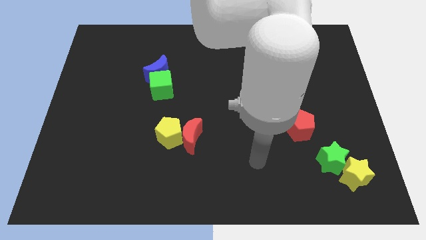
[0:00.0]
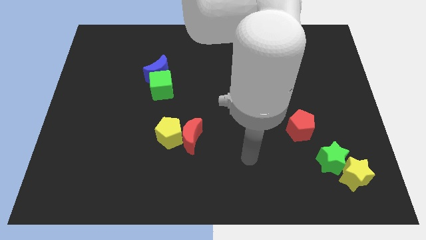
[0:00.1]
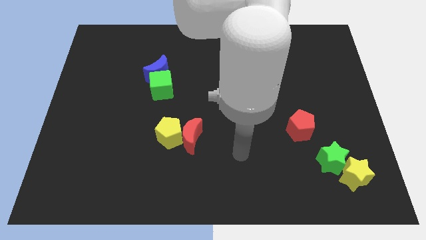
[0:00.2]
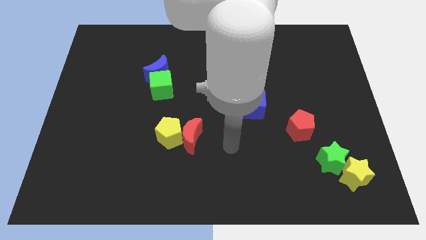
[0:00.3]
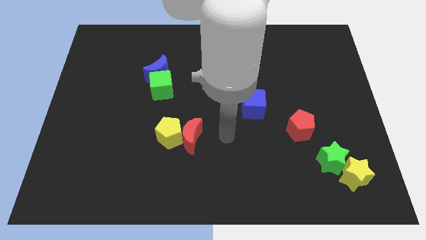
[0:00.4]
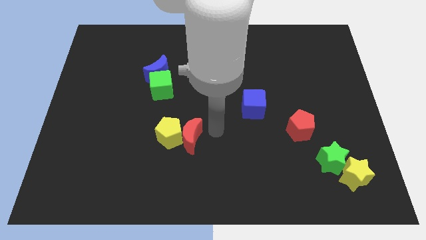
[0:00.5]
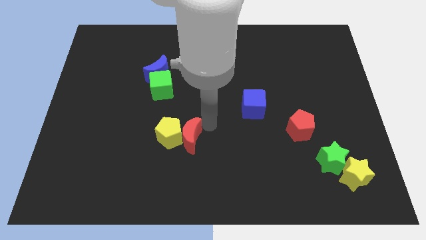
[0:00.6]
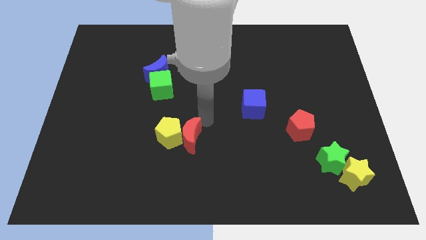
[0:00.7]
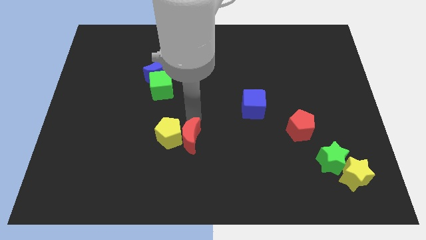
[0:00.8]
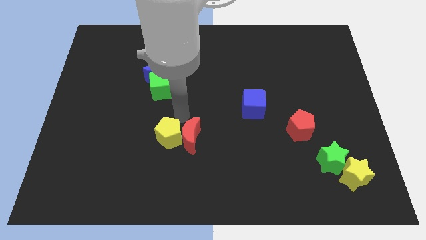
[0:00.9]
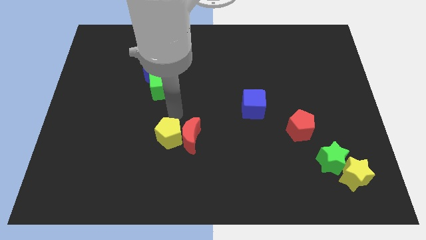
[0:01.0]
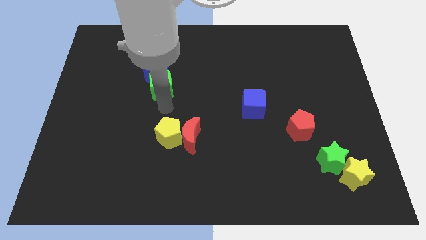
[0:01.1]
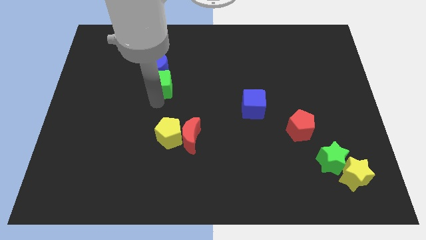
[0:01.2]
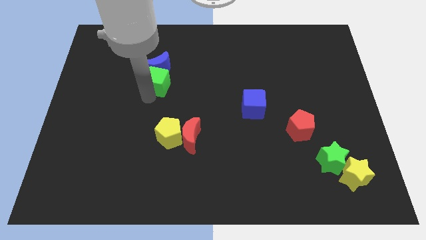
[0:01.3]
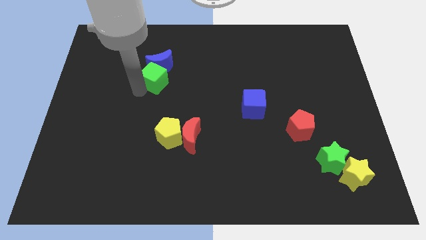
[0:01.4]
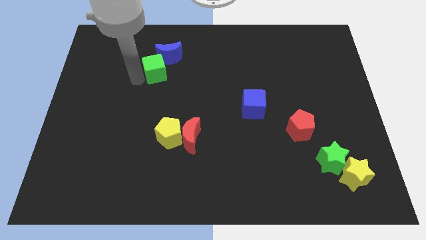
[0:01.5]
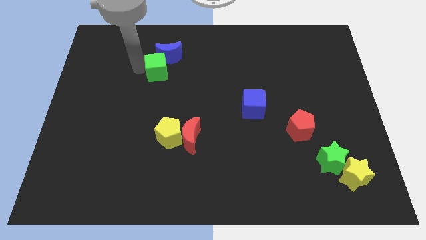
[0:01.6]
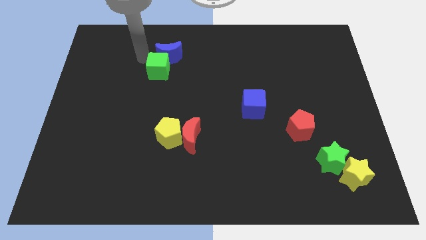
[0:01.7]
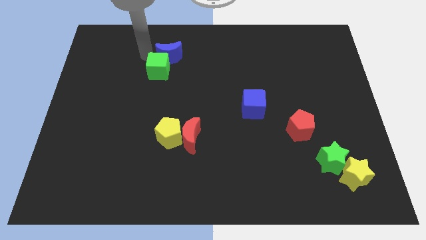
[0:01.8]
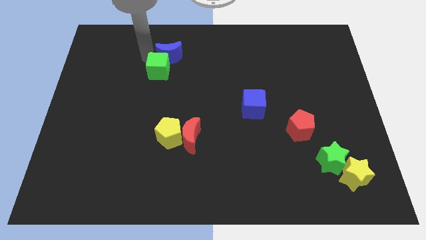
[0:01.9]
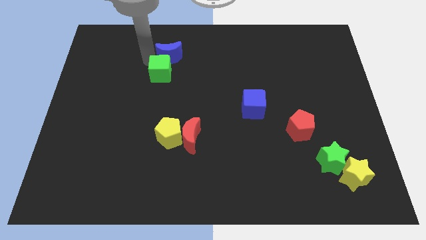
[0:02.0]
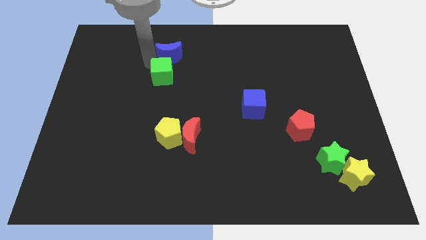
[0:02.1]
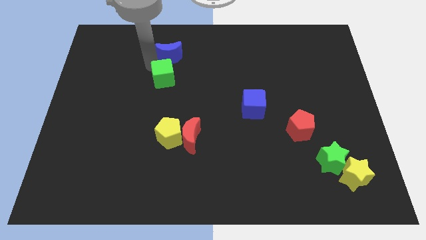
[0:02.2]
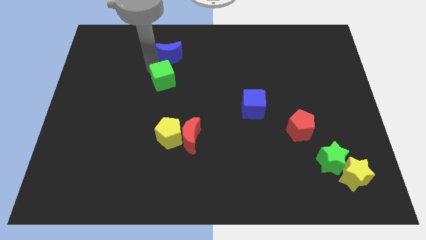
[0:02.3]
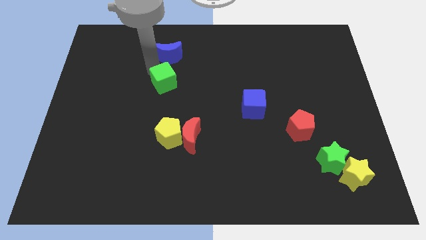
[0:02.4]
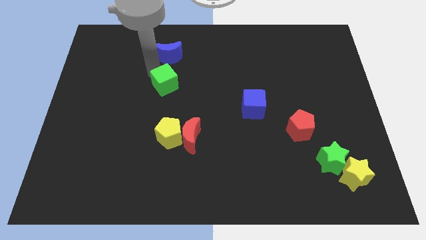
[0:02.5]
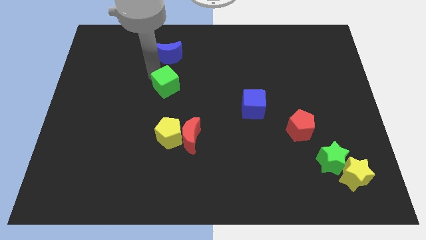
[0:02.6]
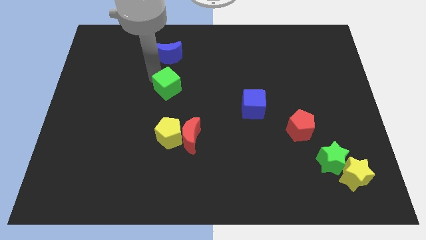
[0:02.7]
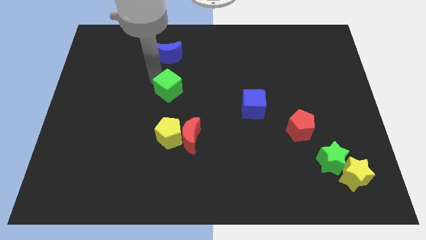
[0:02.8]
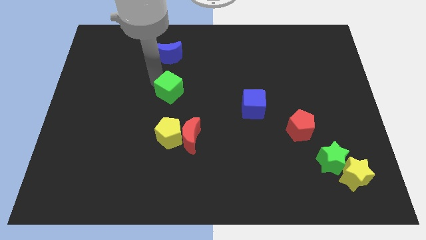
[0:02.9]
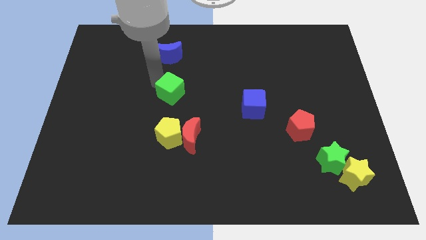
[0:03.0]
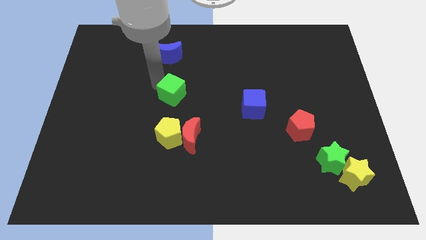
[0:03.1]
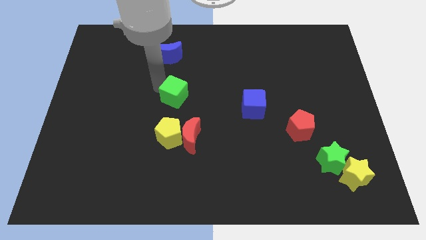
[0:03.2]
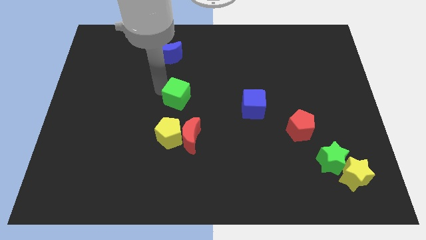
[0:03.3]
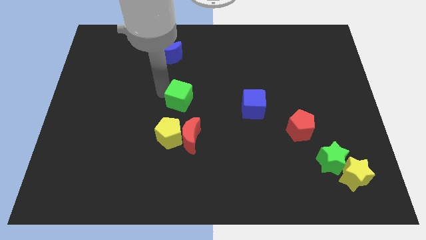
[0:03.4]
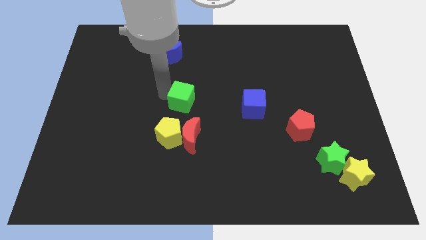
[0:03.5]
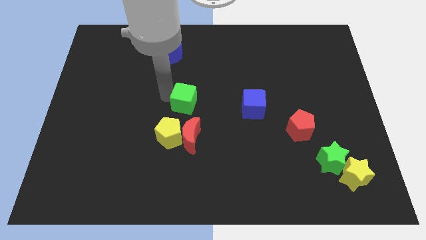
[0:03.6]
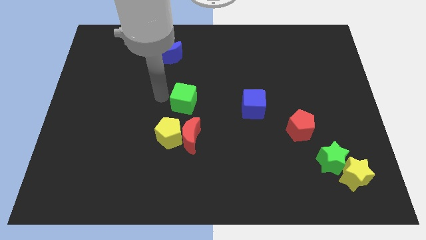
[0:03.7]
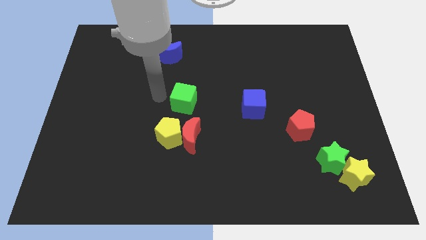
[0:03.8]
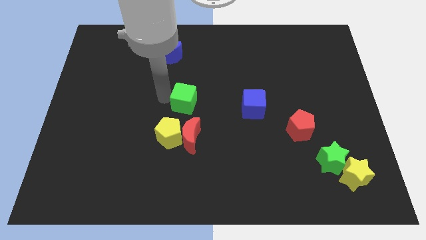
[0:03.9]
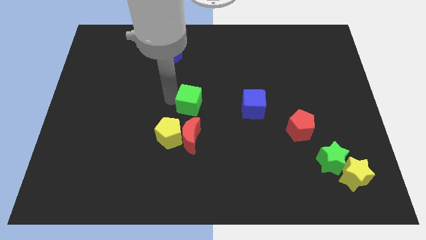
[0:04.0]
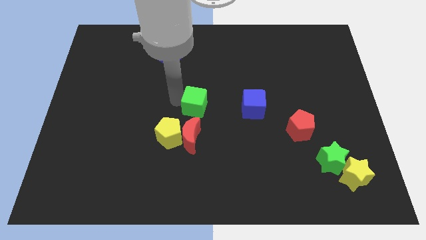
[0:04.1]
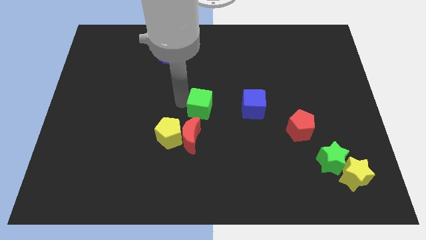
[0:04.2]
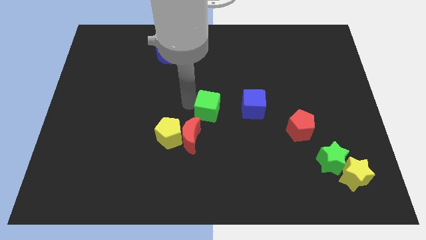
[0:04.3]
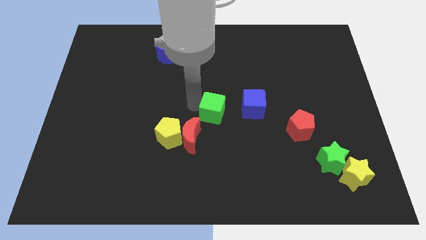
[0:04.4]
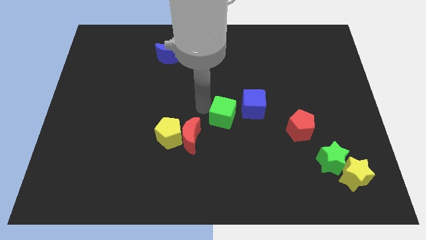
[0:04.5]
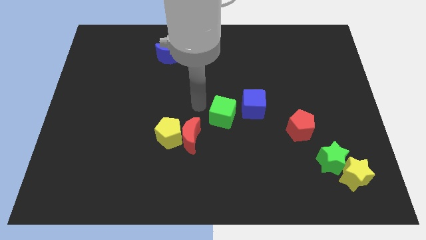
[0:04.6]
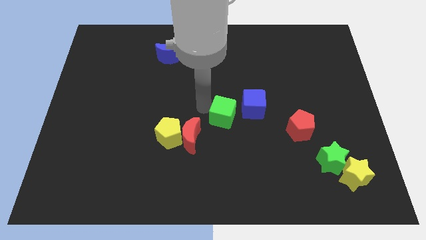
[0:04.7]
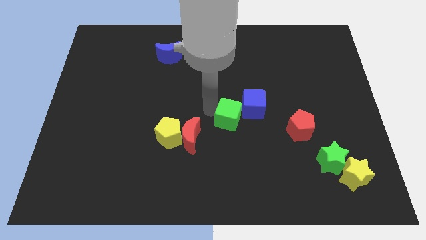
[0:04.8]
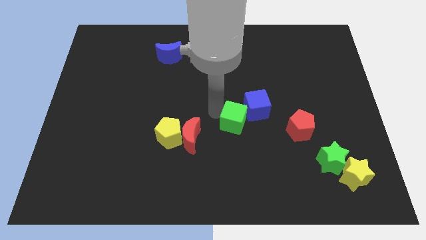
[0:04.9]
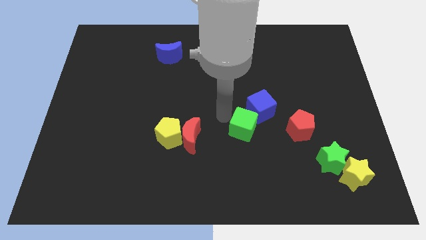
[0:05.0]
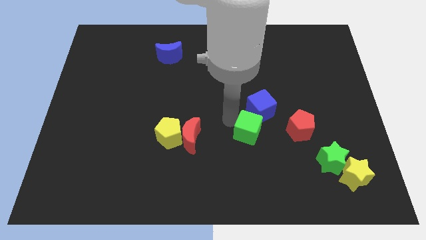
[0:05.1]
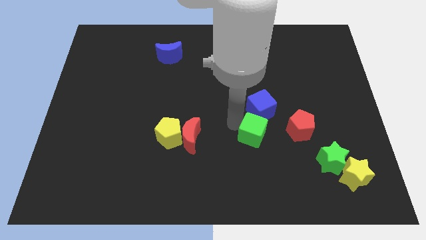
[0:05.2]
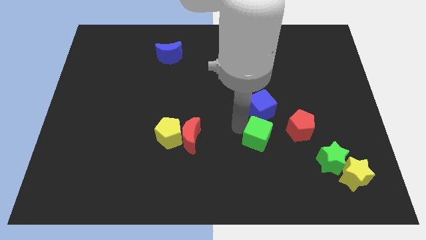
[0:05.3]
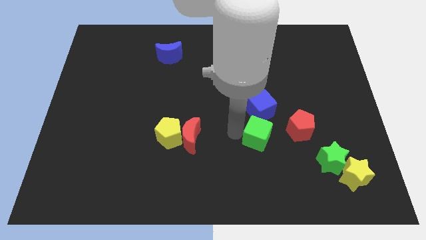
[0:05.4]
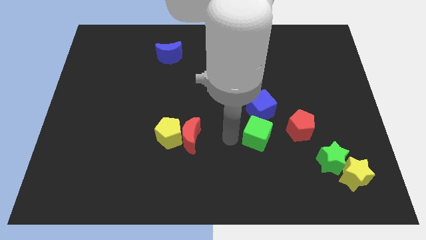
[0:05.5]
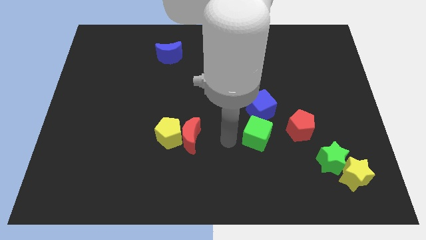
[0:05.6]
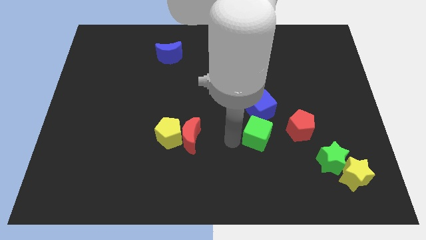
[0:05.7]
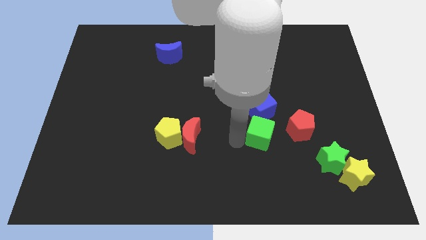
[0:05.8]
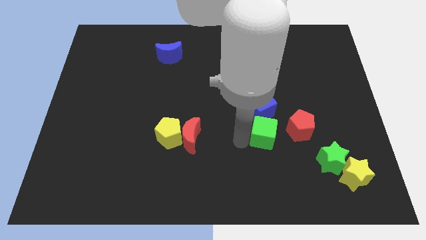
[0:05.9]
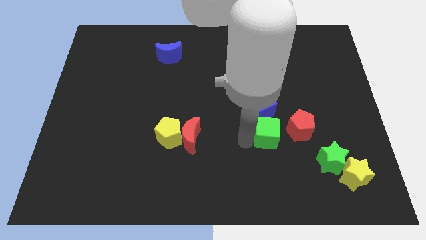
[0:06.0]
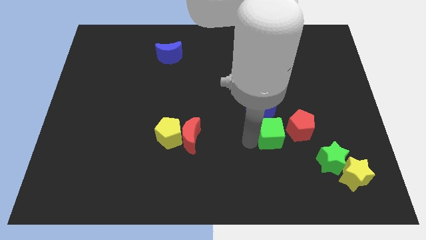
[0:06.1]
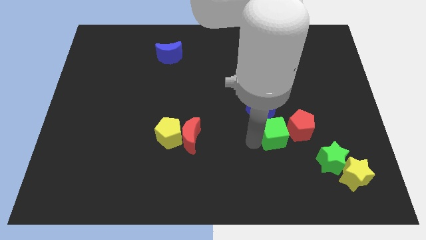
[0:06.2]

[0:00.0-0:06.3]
slide the green cube towards the red pentagon

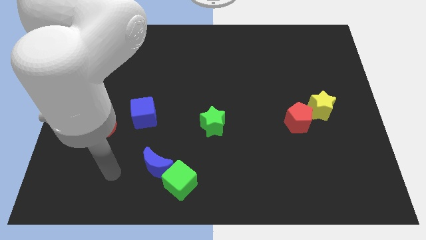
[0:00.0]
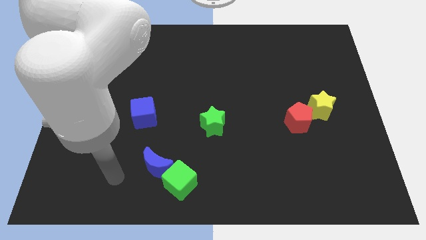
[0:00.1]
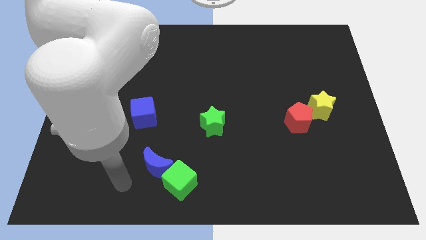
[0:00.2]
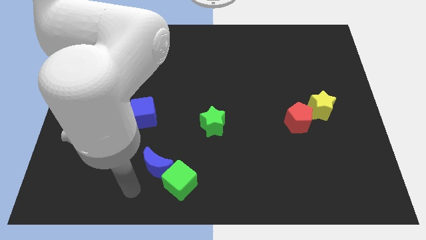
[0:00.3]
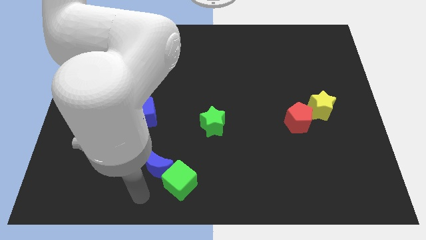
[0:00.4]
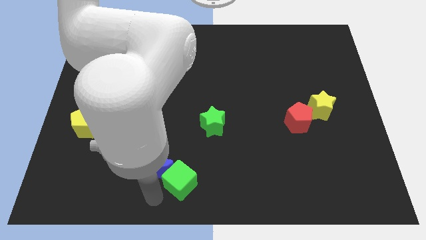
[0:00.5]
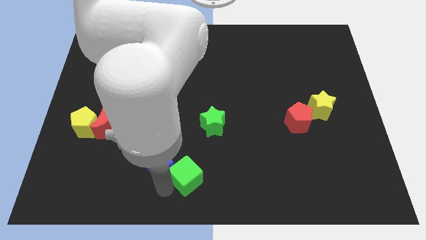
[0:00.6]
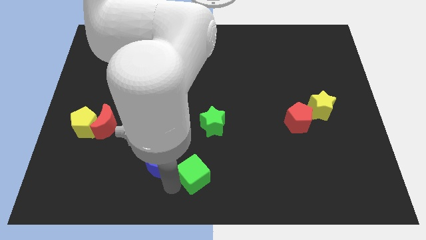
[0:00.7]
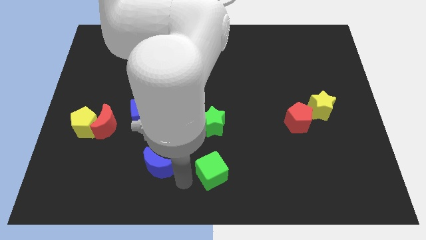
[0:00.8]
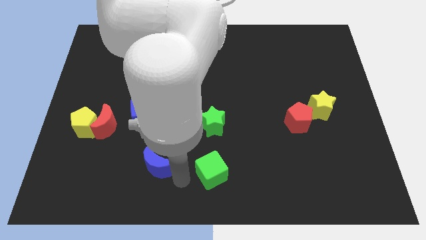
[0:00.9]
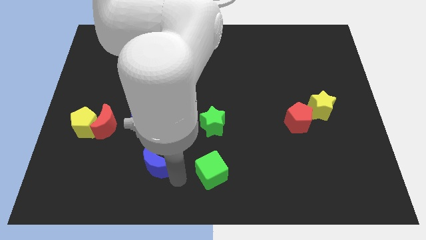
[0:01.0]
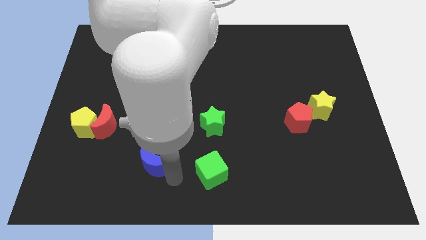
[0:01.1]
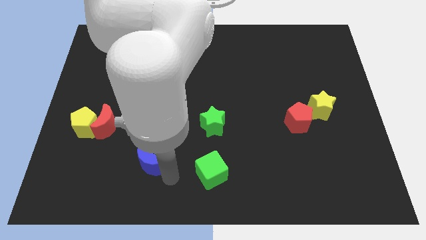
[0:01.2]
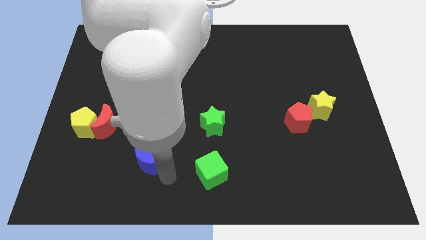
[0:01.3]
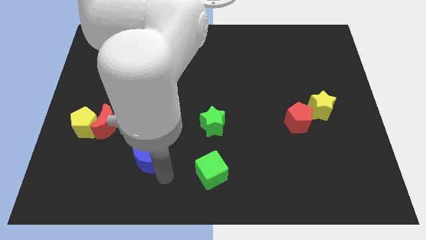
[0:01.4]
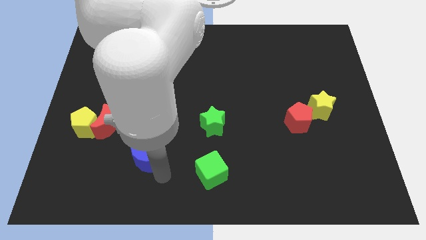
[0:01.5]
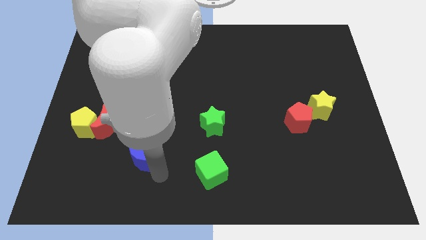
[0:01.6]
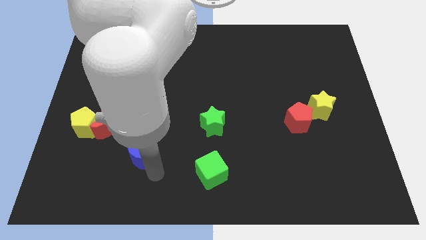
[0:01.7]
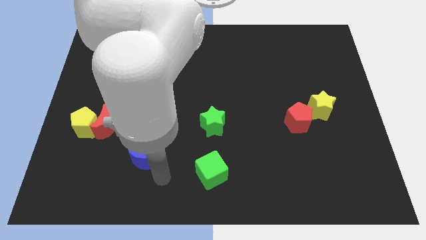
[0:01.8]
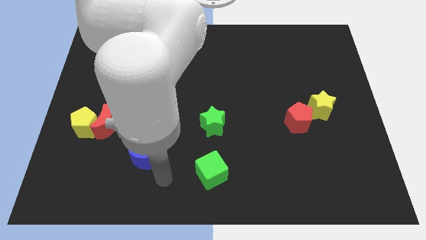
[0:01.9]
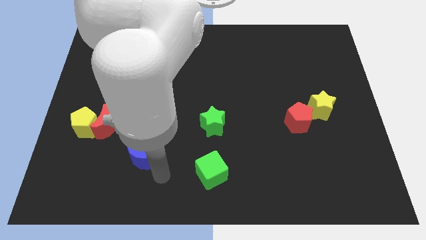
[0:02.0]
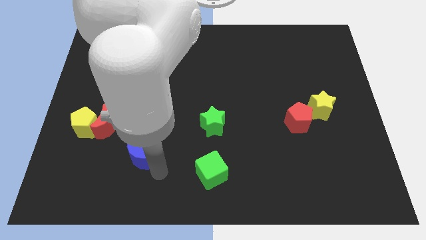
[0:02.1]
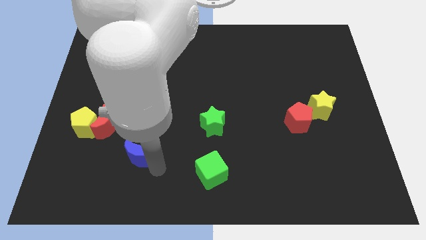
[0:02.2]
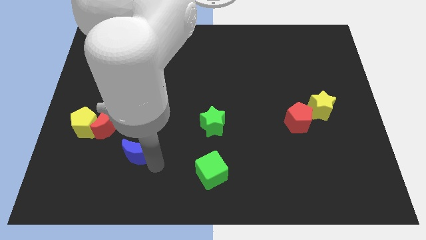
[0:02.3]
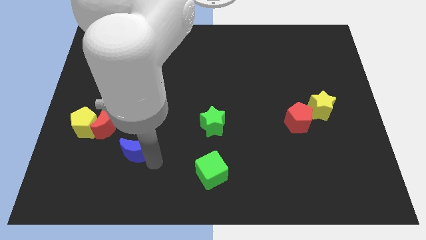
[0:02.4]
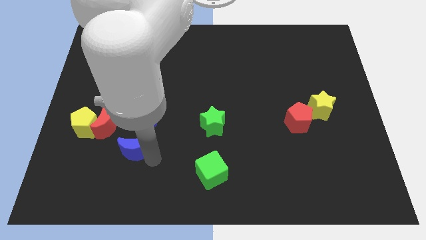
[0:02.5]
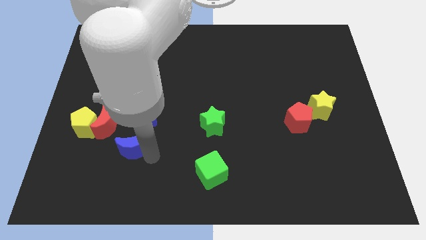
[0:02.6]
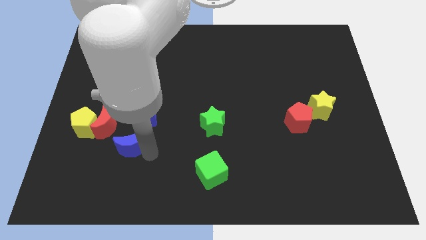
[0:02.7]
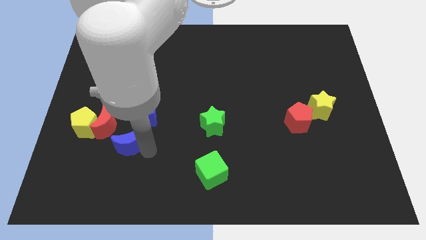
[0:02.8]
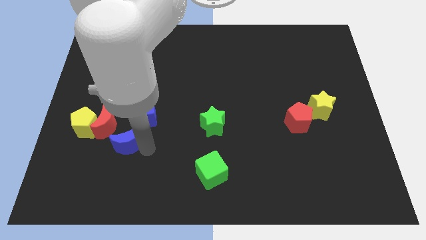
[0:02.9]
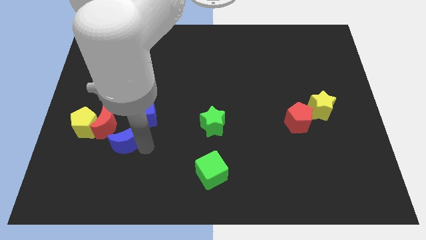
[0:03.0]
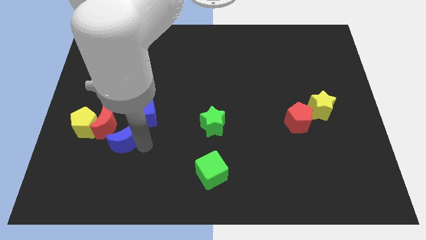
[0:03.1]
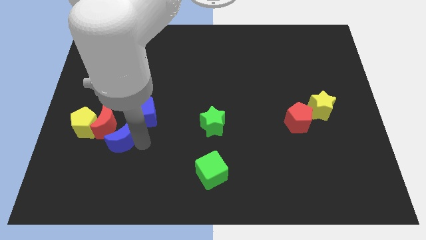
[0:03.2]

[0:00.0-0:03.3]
push the blue moon to the red moon
